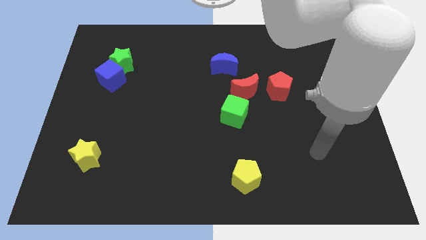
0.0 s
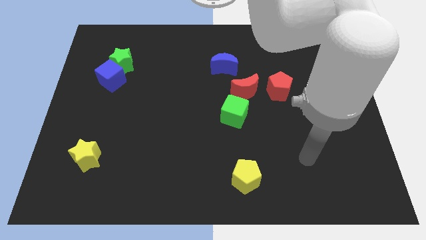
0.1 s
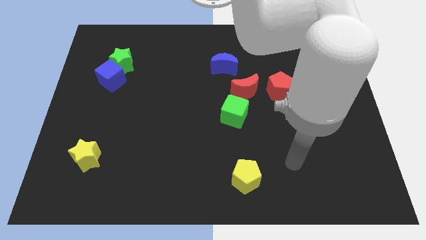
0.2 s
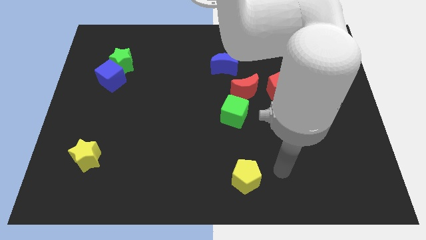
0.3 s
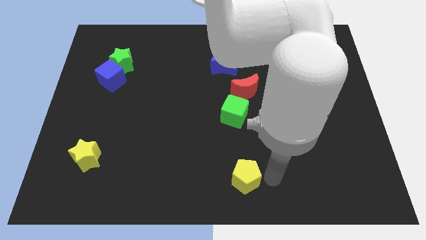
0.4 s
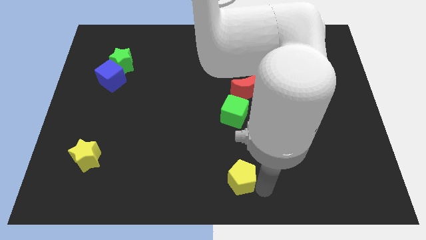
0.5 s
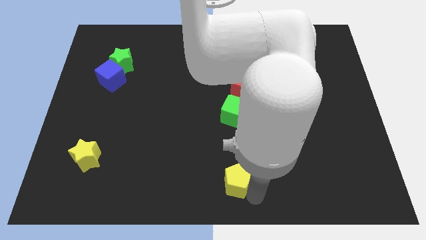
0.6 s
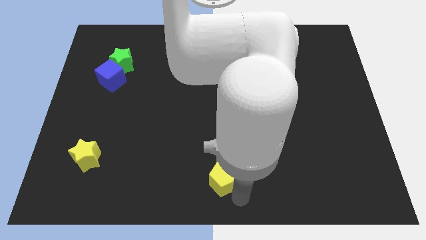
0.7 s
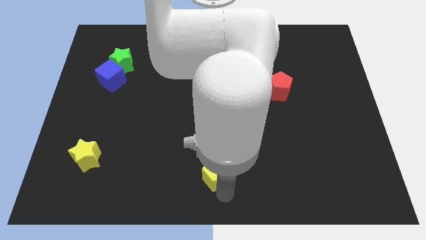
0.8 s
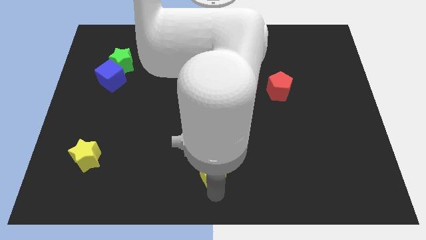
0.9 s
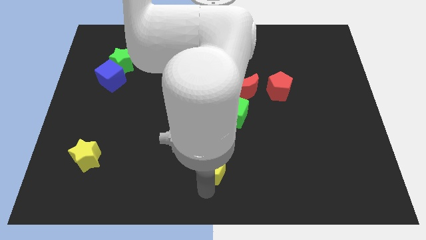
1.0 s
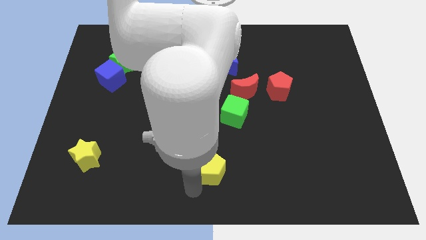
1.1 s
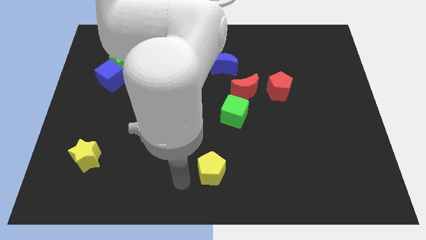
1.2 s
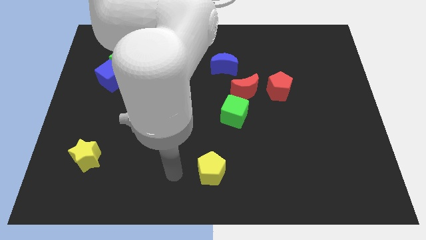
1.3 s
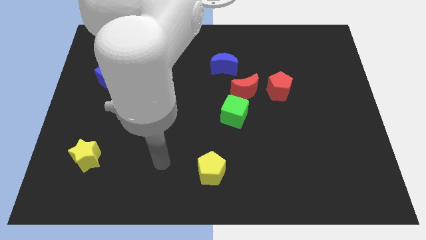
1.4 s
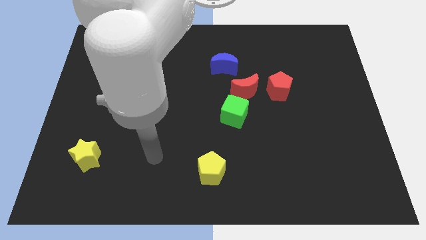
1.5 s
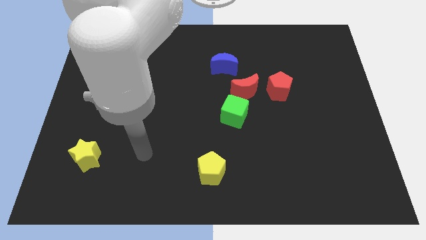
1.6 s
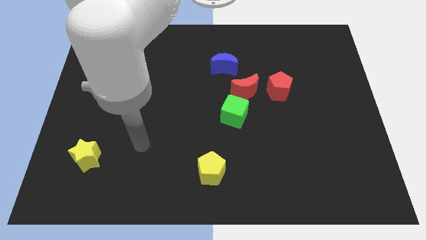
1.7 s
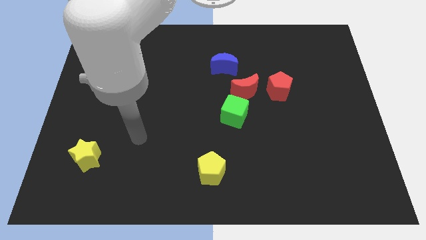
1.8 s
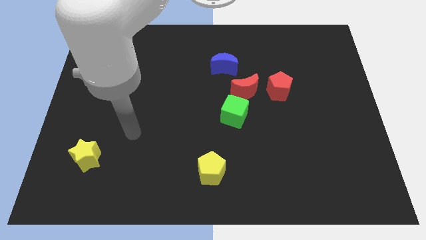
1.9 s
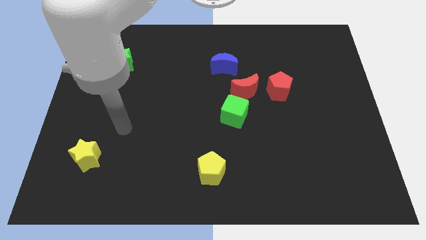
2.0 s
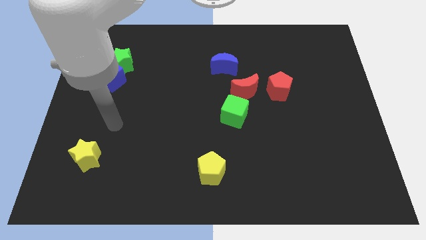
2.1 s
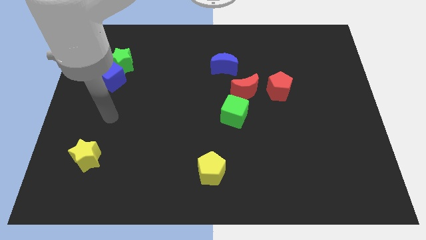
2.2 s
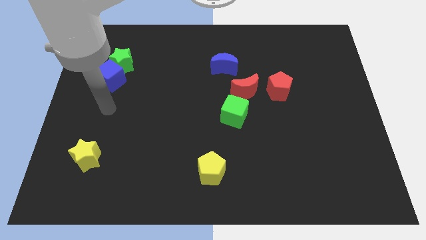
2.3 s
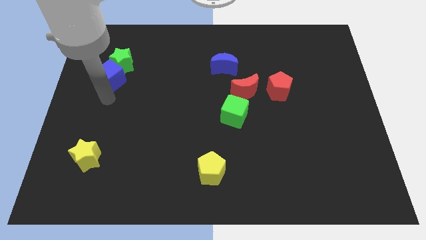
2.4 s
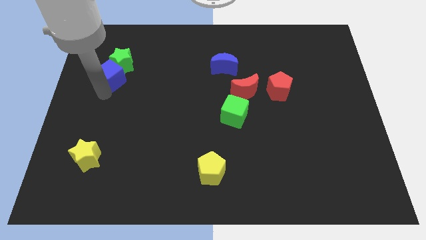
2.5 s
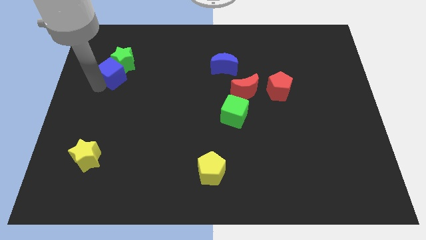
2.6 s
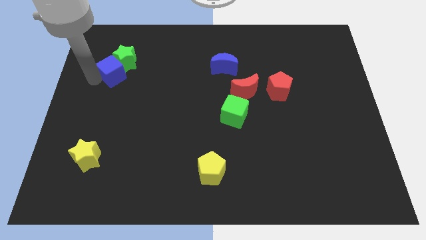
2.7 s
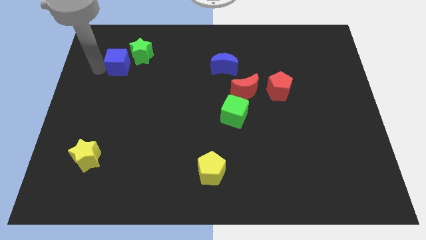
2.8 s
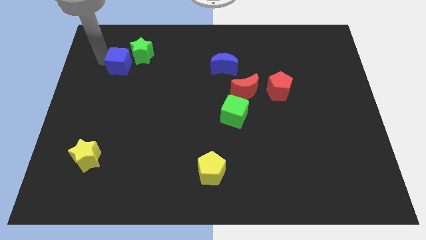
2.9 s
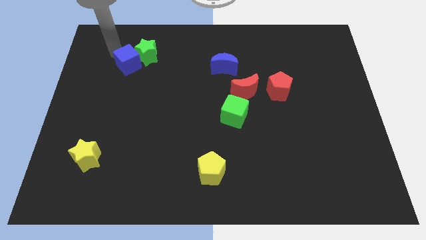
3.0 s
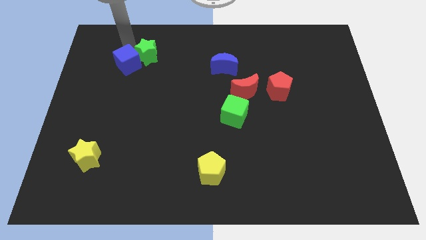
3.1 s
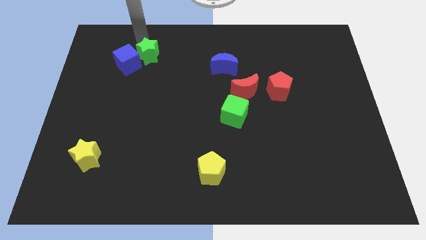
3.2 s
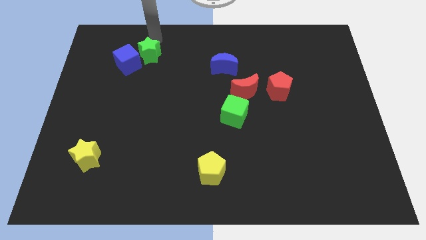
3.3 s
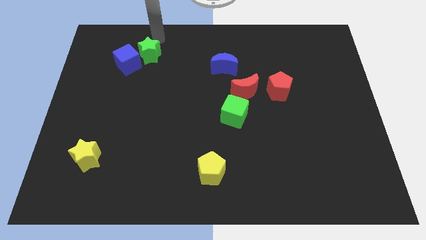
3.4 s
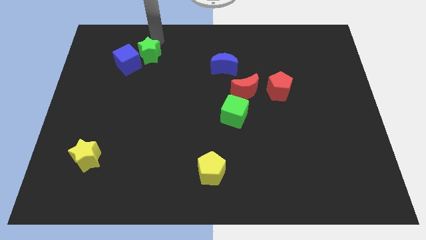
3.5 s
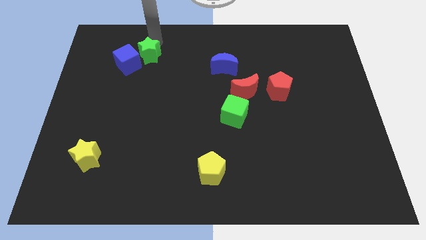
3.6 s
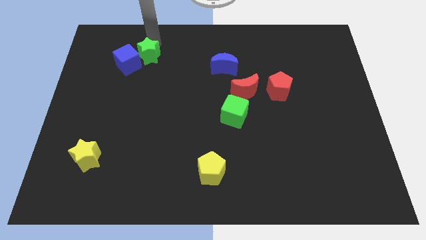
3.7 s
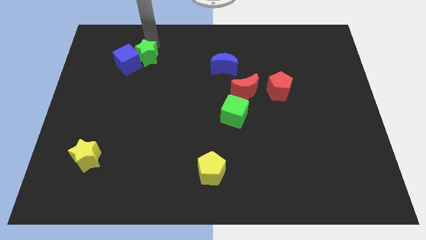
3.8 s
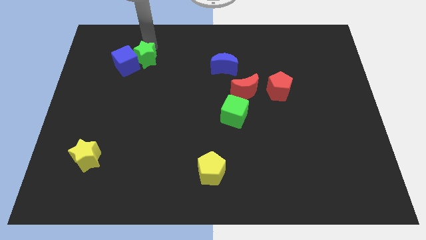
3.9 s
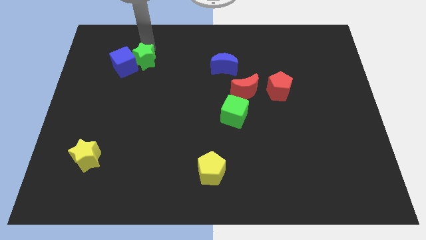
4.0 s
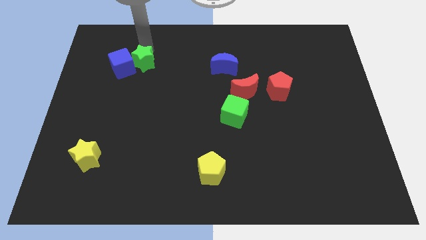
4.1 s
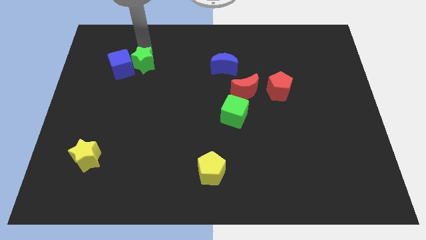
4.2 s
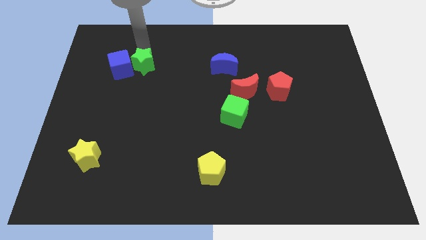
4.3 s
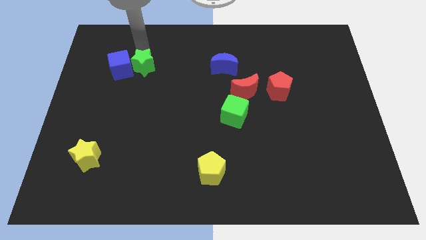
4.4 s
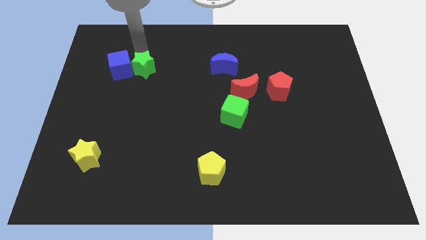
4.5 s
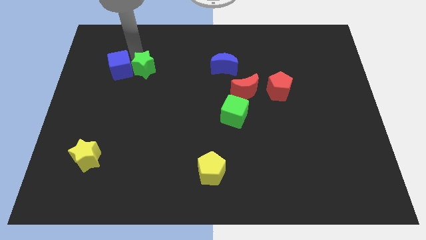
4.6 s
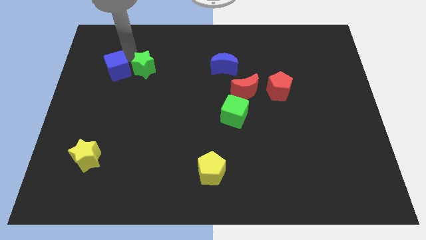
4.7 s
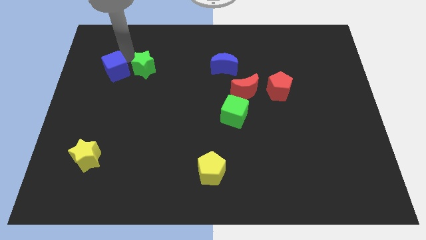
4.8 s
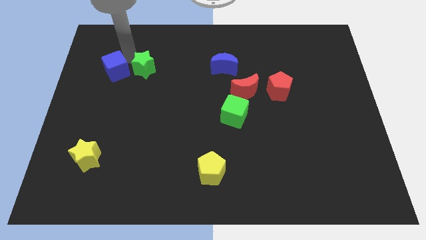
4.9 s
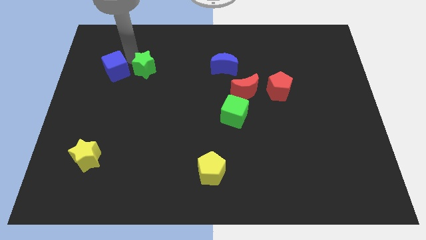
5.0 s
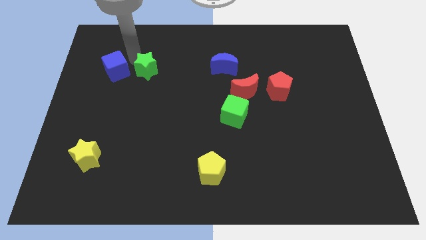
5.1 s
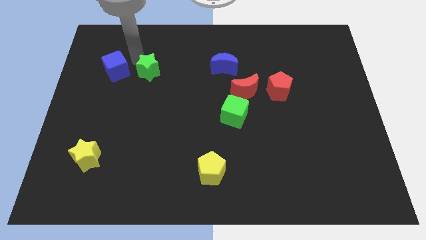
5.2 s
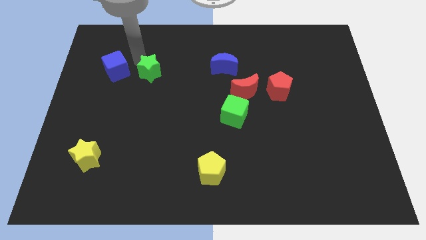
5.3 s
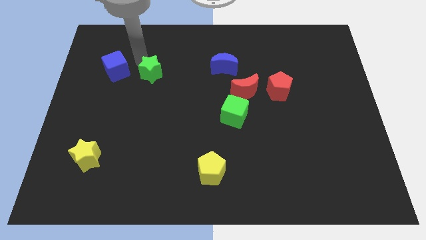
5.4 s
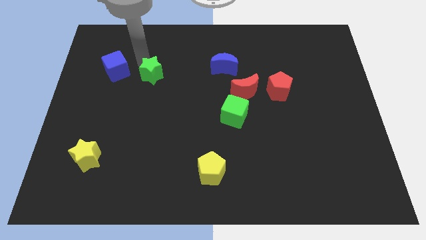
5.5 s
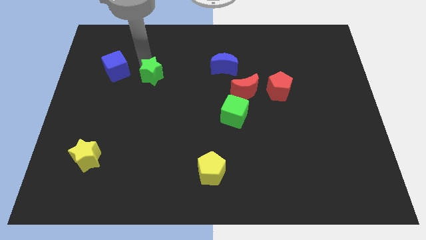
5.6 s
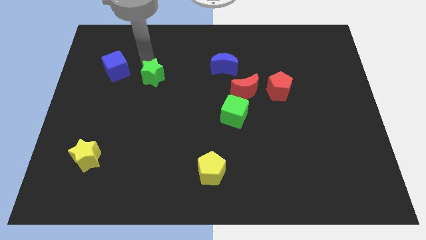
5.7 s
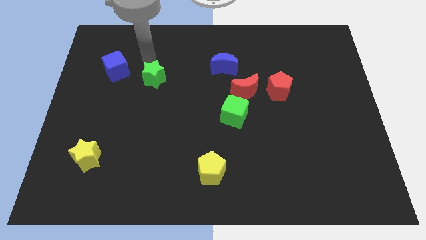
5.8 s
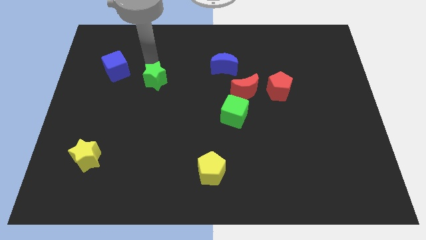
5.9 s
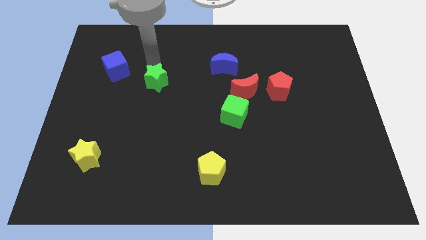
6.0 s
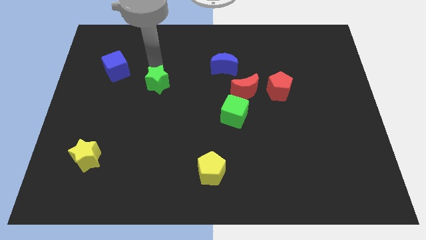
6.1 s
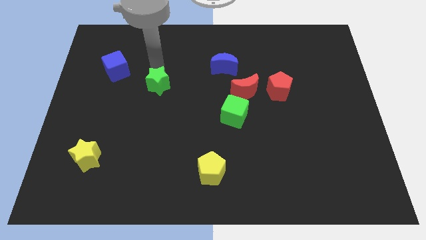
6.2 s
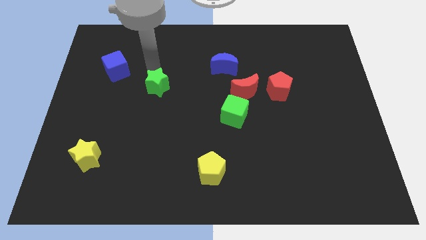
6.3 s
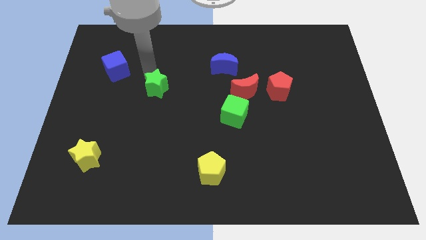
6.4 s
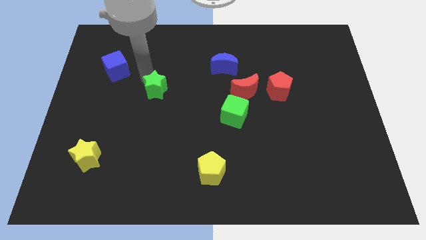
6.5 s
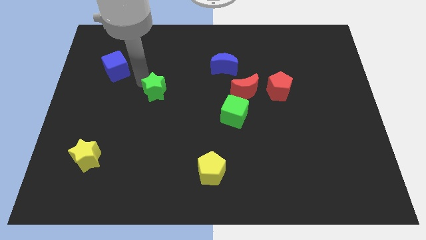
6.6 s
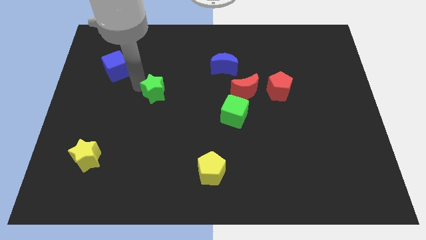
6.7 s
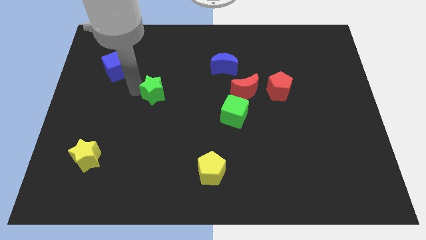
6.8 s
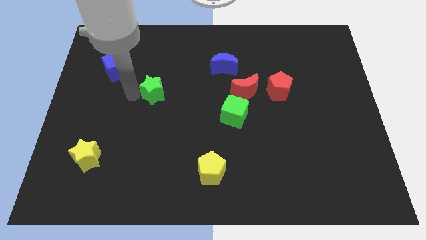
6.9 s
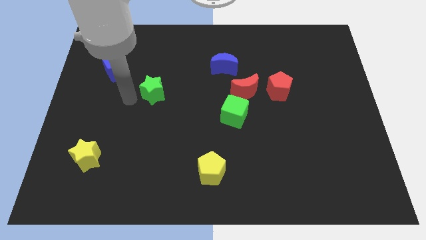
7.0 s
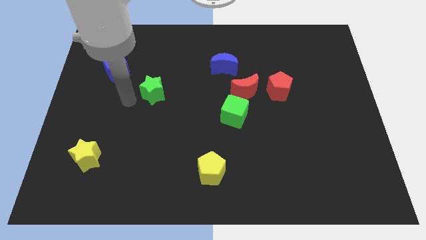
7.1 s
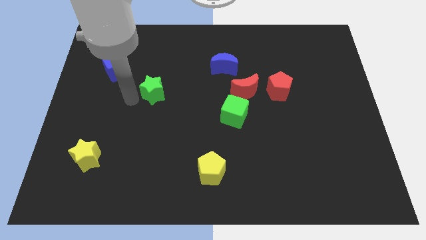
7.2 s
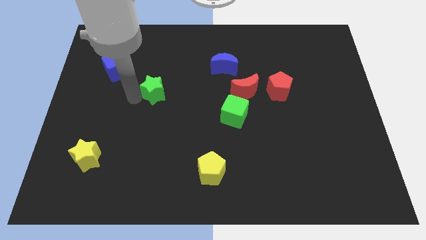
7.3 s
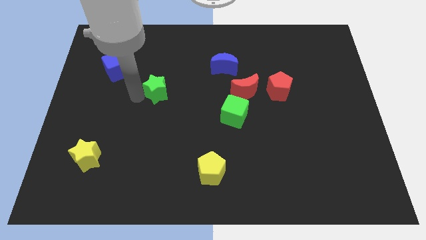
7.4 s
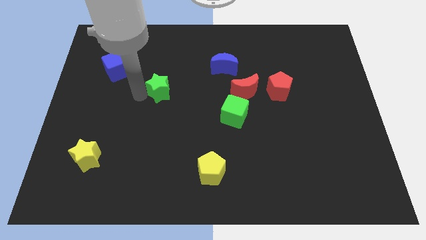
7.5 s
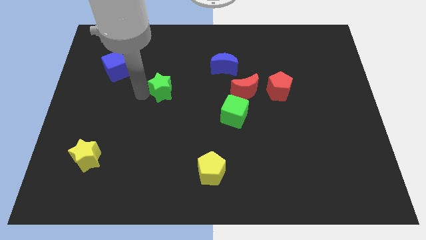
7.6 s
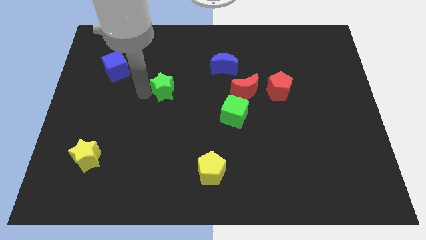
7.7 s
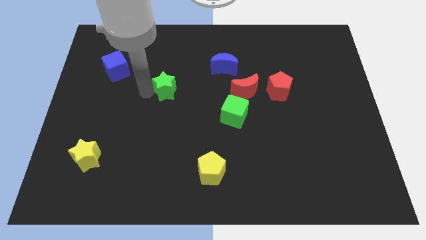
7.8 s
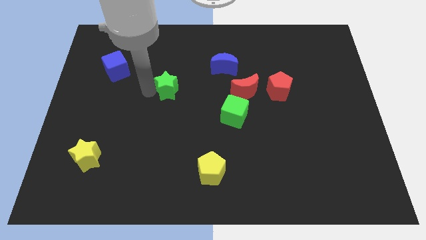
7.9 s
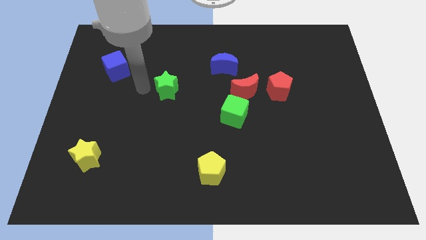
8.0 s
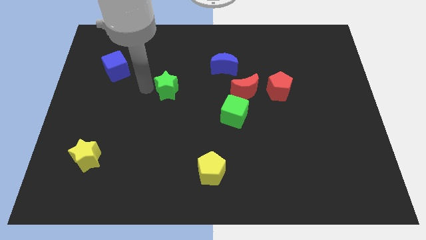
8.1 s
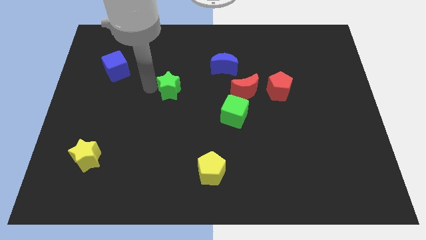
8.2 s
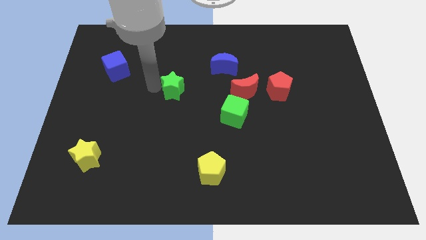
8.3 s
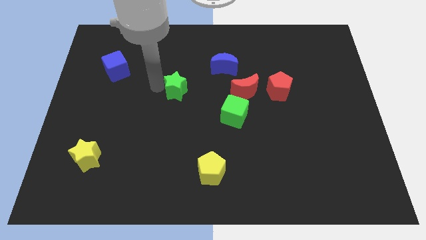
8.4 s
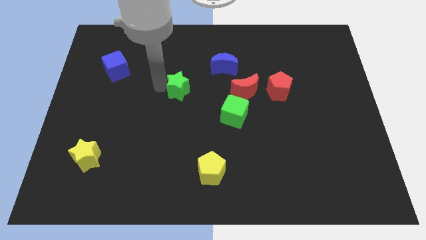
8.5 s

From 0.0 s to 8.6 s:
push the green star to the left side of the red moon
